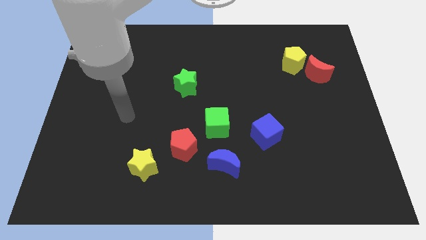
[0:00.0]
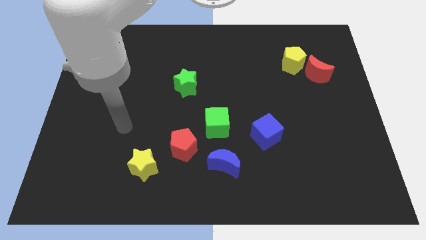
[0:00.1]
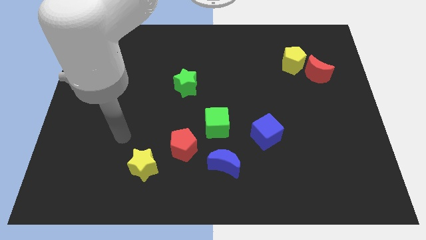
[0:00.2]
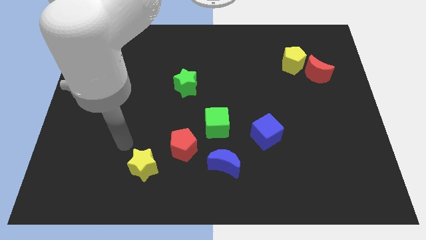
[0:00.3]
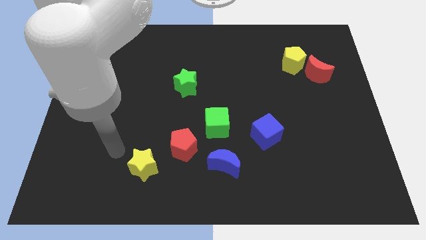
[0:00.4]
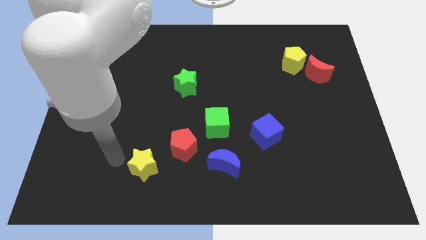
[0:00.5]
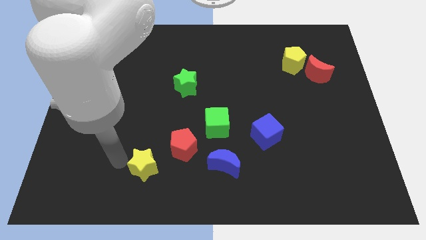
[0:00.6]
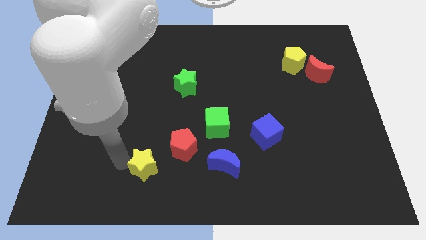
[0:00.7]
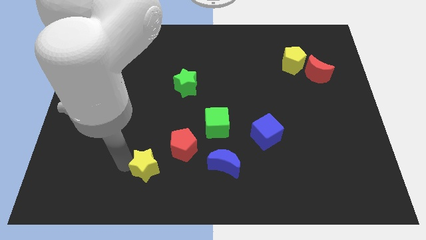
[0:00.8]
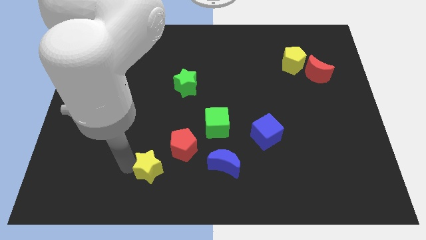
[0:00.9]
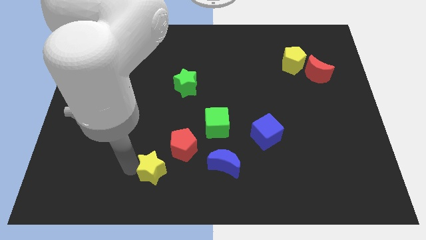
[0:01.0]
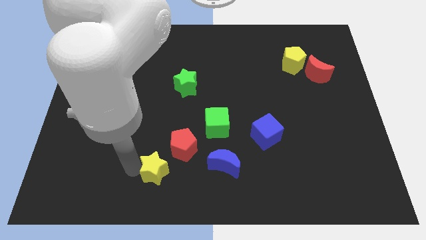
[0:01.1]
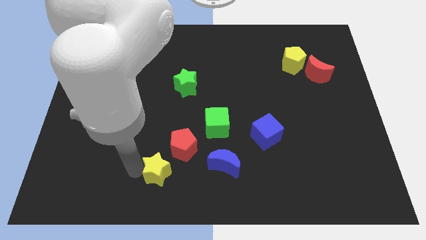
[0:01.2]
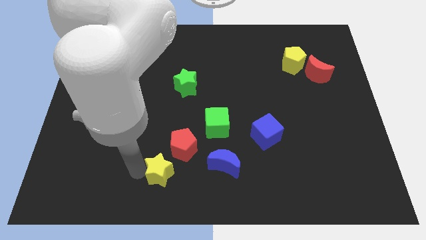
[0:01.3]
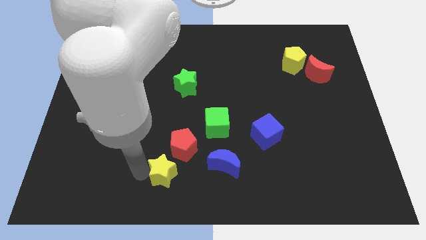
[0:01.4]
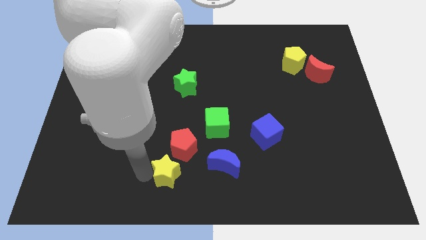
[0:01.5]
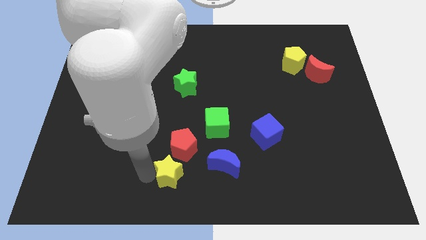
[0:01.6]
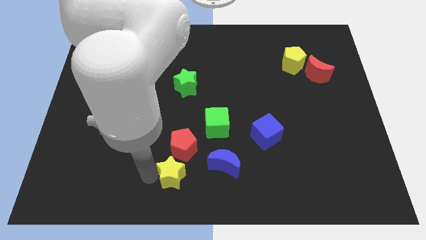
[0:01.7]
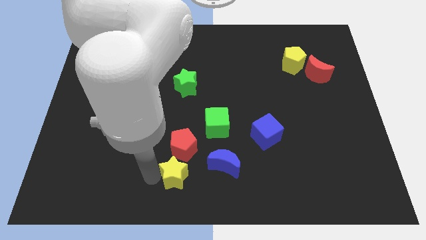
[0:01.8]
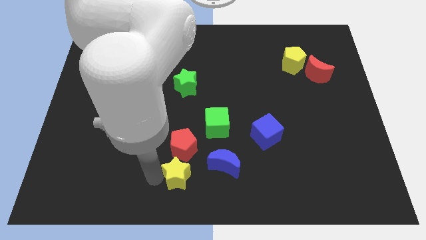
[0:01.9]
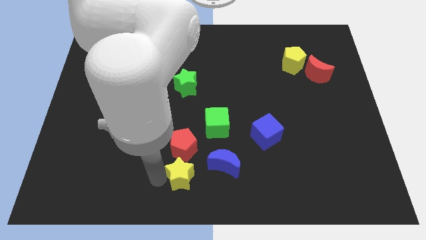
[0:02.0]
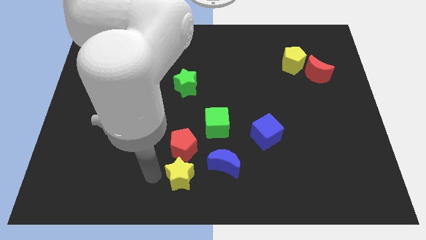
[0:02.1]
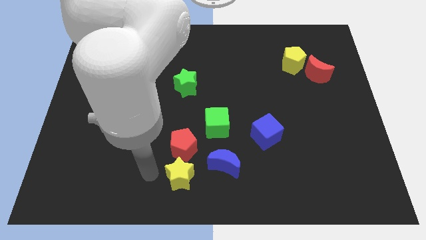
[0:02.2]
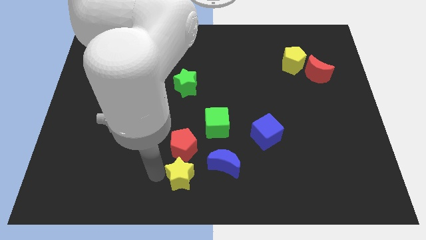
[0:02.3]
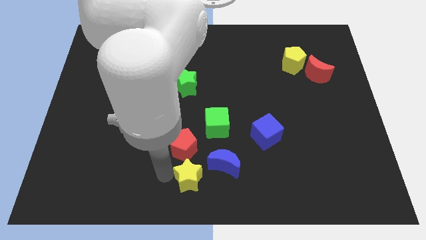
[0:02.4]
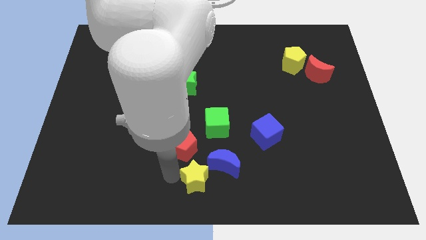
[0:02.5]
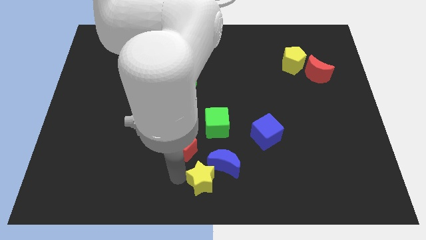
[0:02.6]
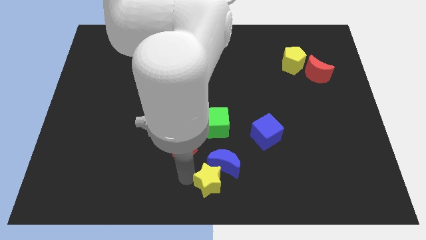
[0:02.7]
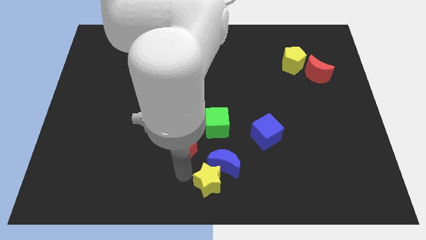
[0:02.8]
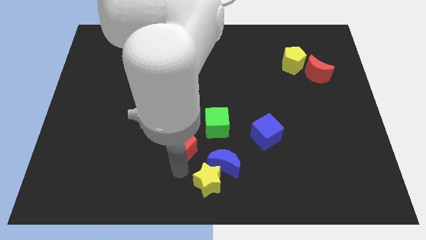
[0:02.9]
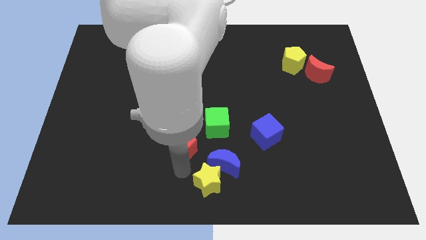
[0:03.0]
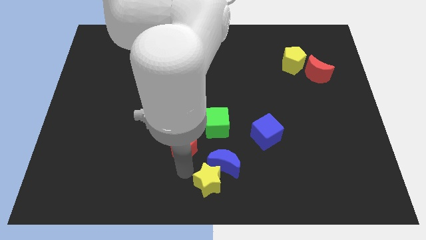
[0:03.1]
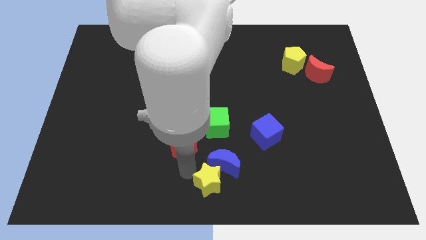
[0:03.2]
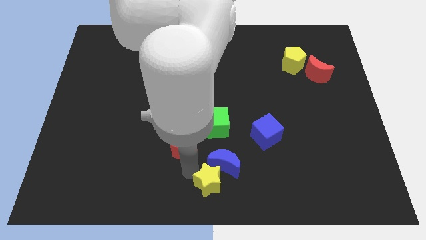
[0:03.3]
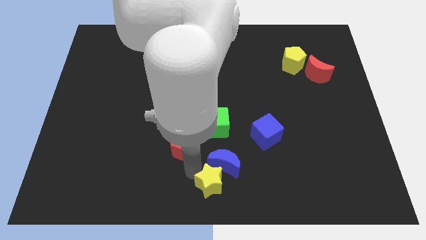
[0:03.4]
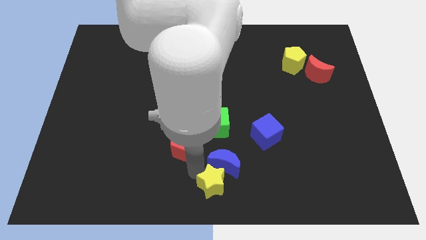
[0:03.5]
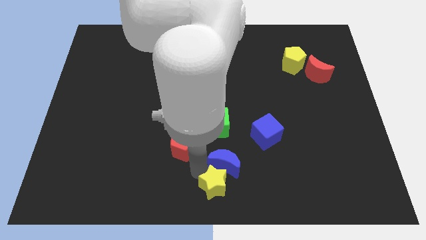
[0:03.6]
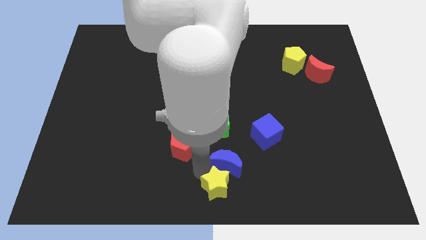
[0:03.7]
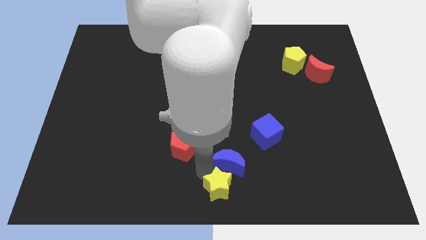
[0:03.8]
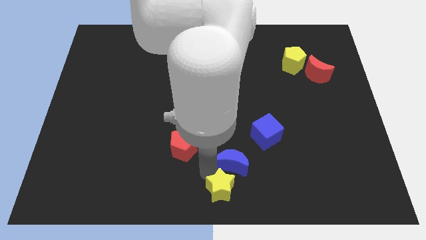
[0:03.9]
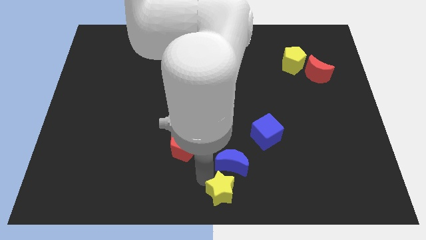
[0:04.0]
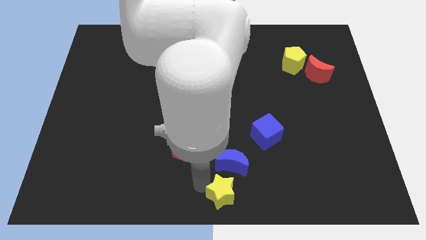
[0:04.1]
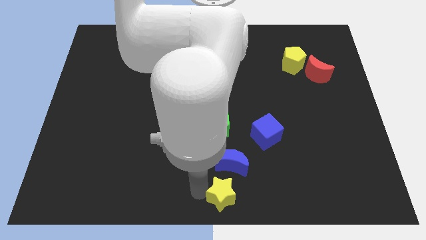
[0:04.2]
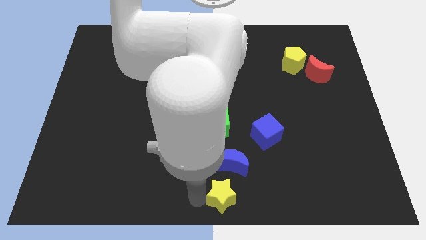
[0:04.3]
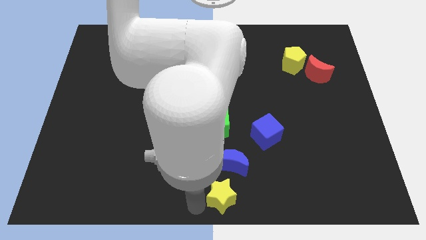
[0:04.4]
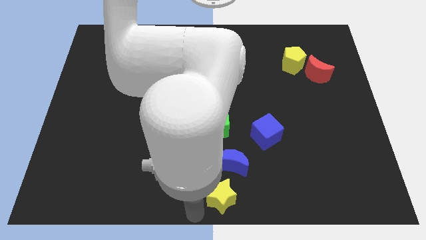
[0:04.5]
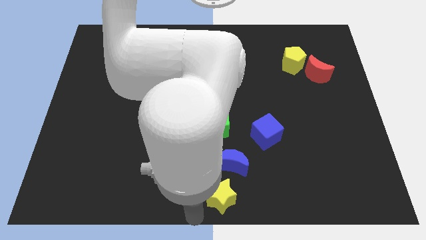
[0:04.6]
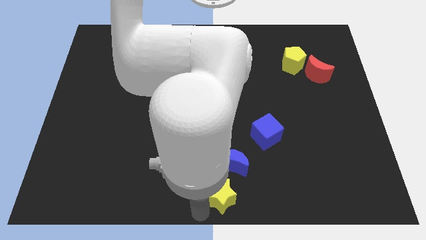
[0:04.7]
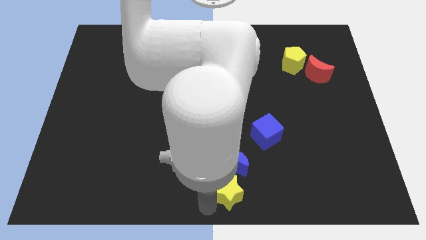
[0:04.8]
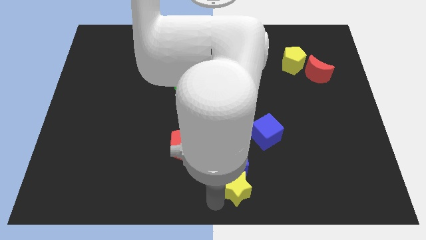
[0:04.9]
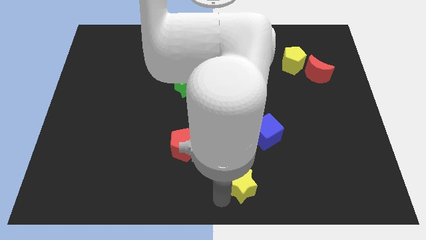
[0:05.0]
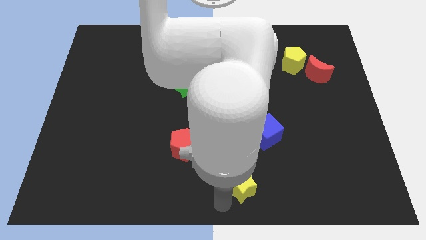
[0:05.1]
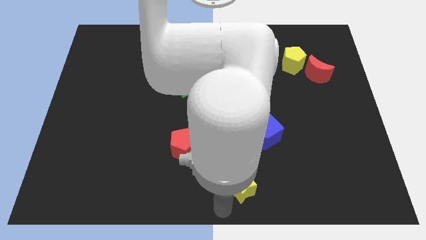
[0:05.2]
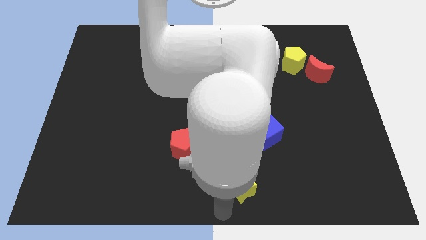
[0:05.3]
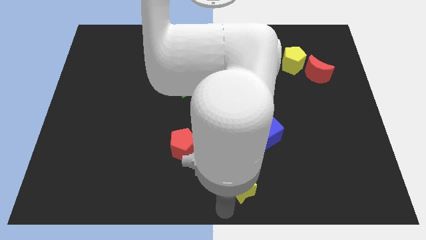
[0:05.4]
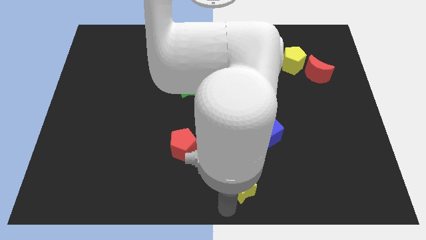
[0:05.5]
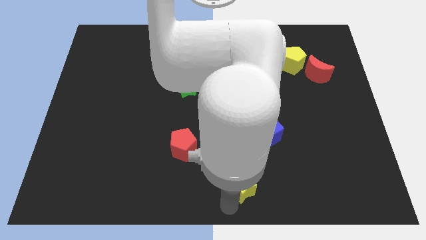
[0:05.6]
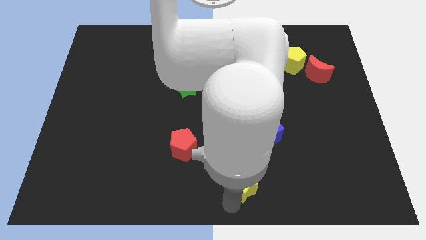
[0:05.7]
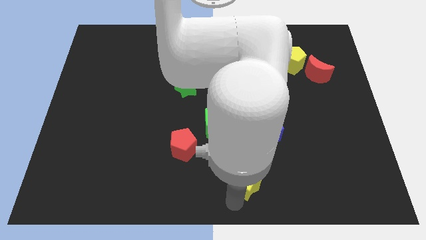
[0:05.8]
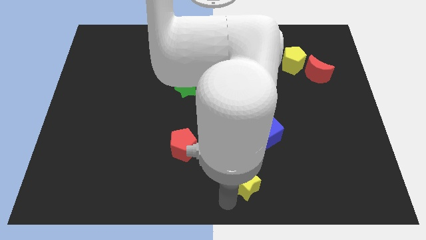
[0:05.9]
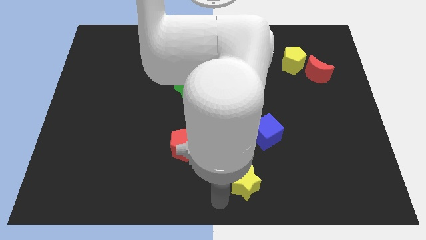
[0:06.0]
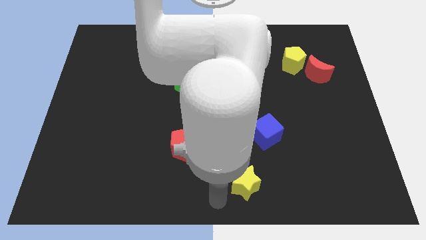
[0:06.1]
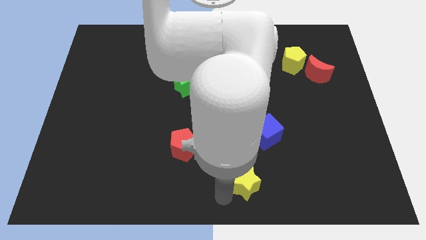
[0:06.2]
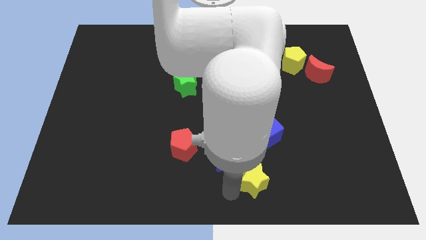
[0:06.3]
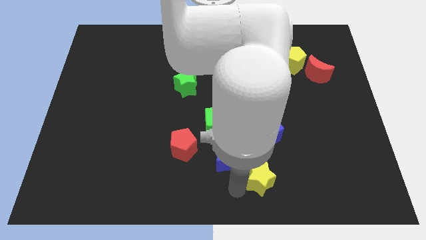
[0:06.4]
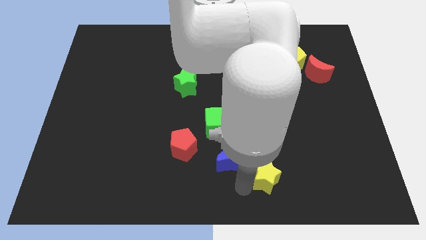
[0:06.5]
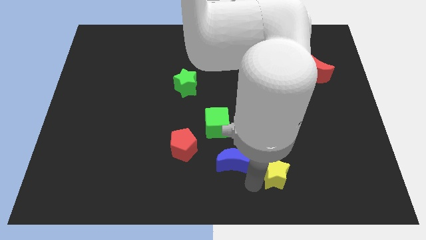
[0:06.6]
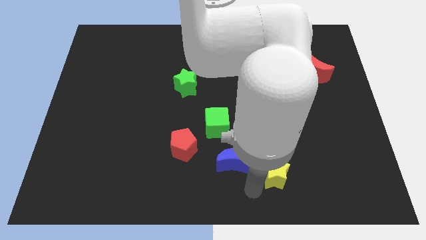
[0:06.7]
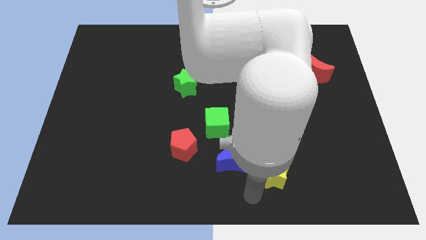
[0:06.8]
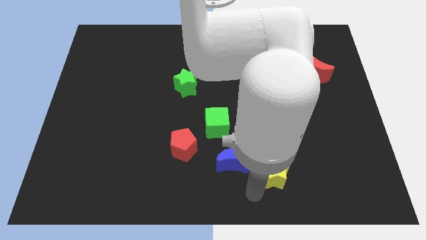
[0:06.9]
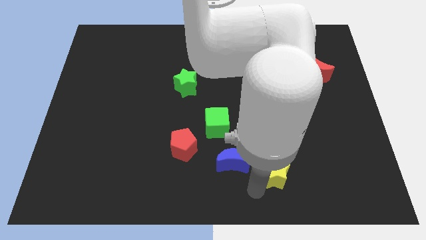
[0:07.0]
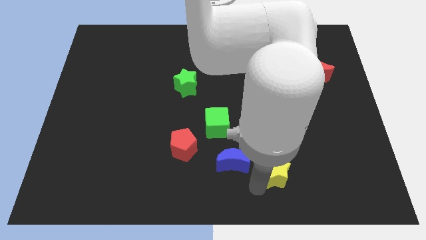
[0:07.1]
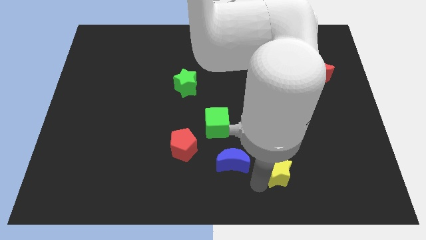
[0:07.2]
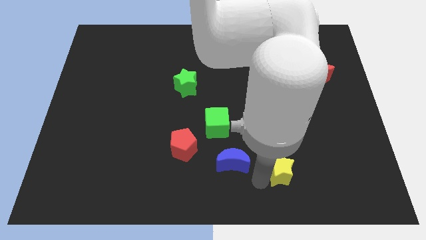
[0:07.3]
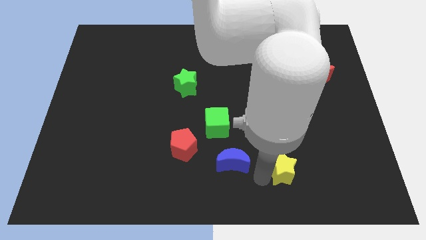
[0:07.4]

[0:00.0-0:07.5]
slide the yellow star diagonally down and to the right of the blue cube

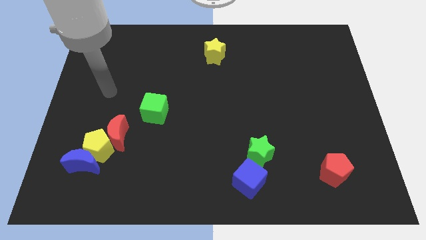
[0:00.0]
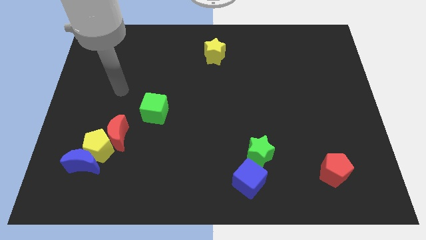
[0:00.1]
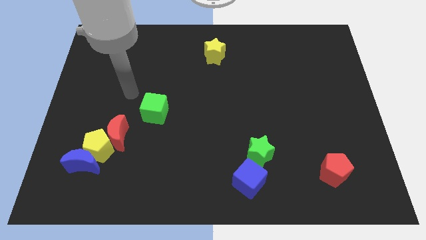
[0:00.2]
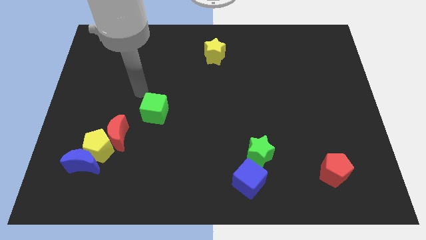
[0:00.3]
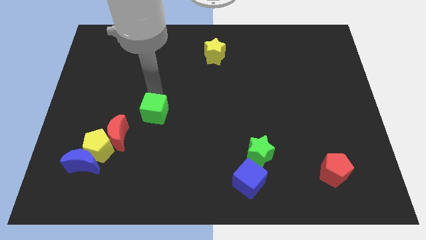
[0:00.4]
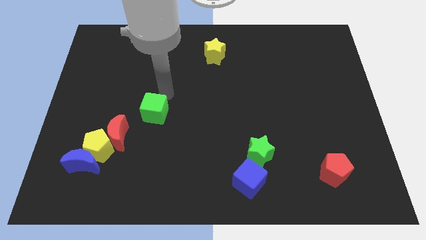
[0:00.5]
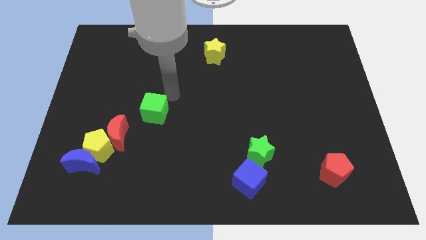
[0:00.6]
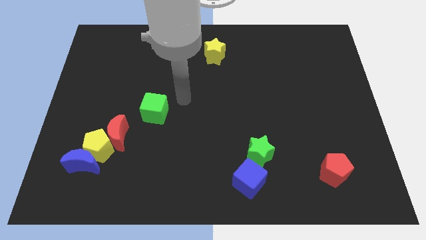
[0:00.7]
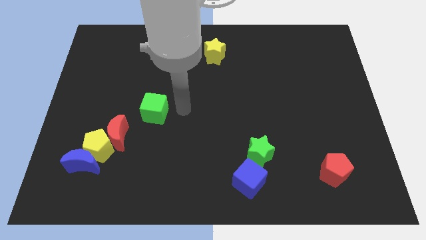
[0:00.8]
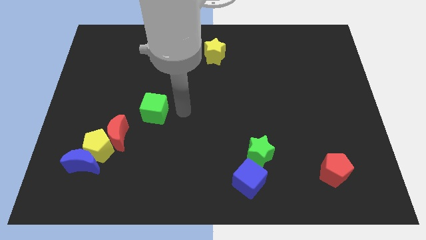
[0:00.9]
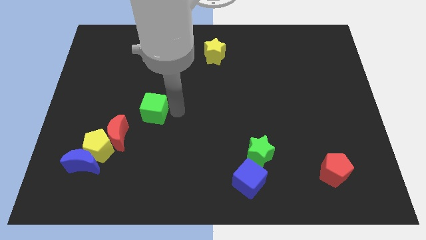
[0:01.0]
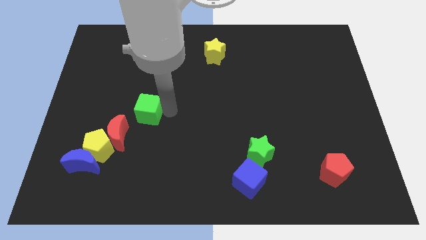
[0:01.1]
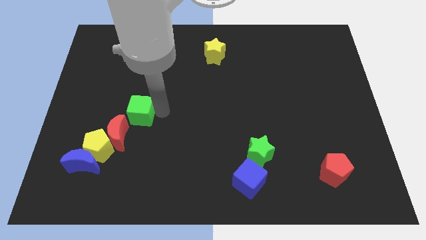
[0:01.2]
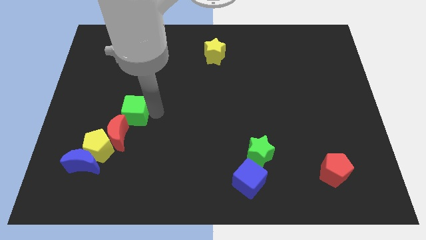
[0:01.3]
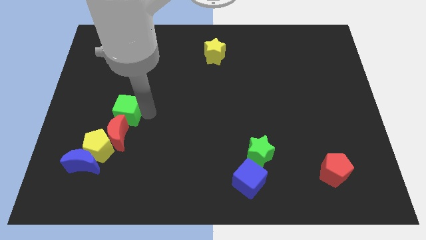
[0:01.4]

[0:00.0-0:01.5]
push the green cube to the top side of the yellow pentagon
